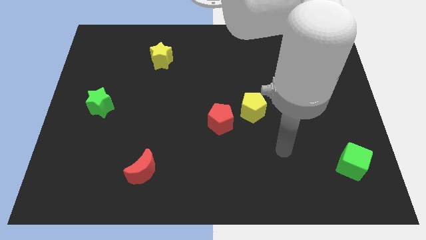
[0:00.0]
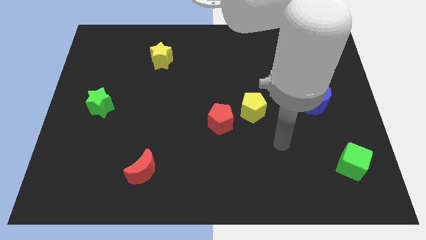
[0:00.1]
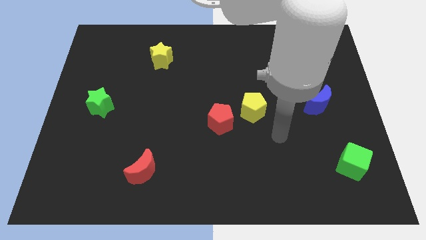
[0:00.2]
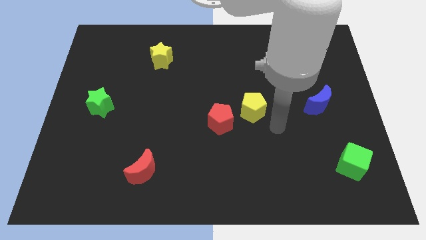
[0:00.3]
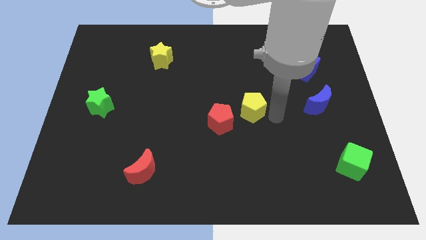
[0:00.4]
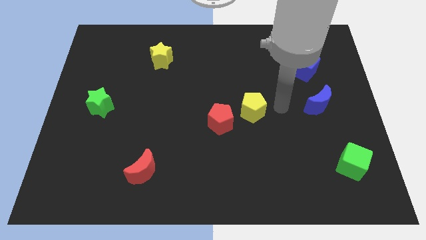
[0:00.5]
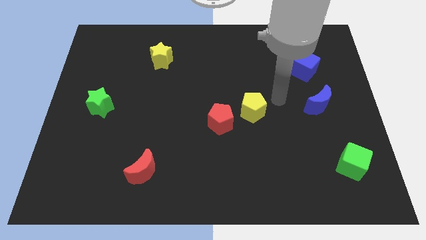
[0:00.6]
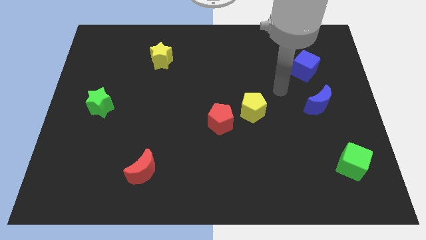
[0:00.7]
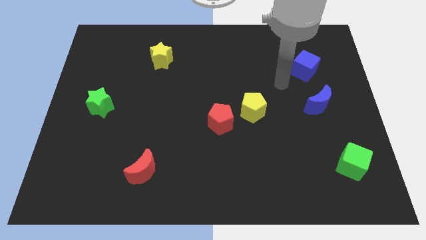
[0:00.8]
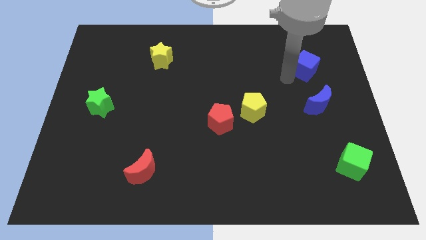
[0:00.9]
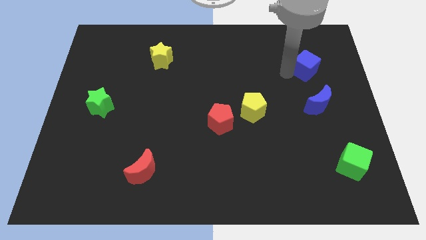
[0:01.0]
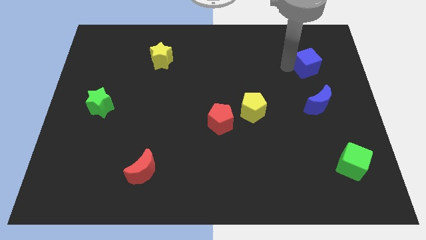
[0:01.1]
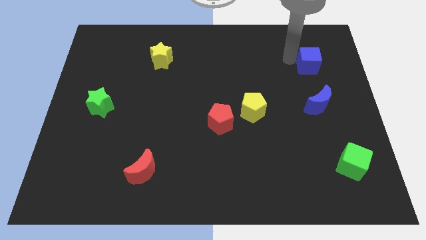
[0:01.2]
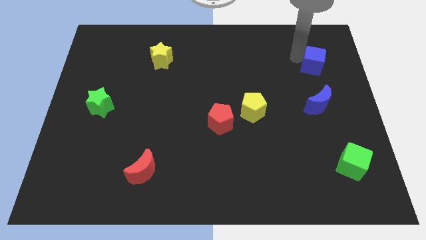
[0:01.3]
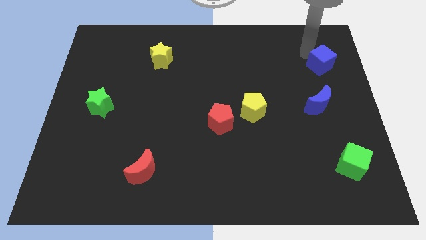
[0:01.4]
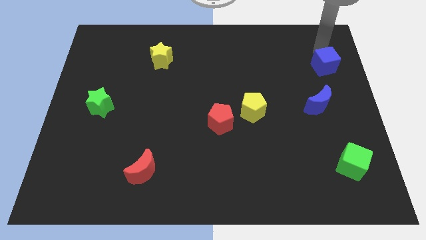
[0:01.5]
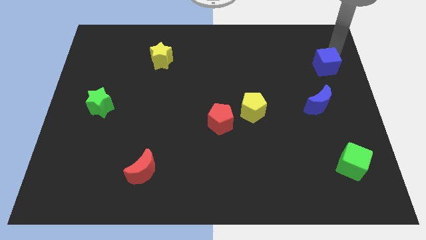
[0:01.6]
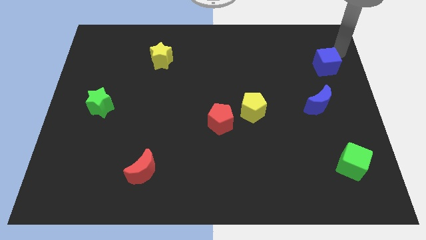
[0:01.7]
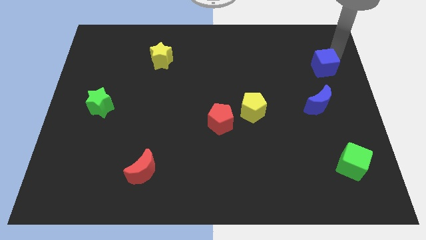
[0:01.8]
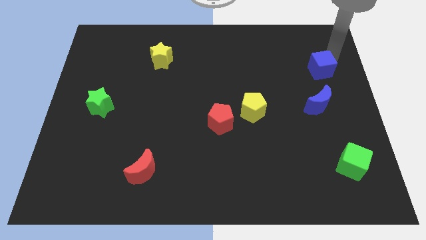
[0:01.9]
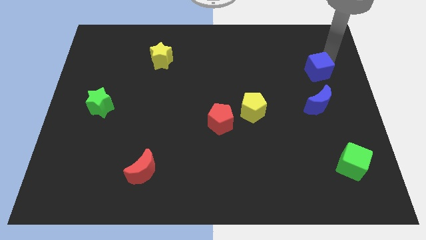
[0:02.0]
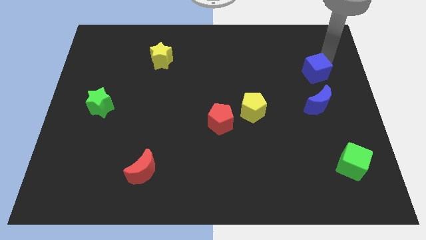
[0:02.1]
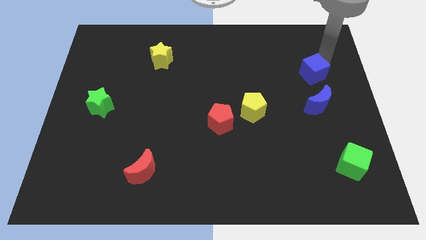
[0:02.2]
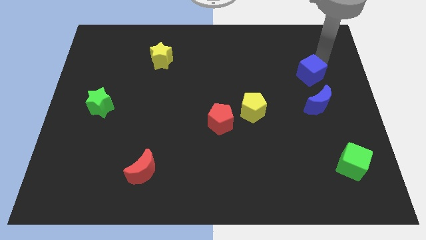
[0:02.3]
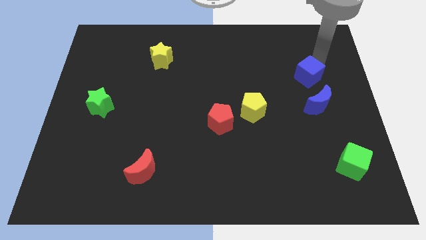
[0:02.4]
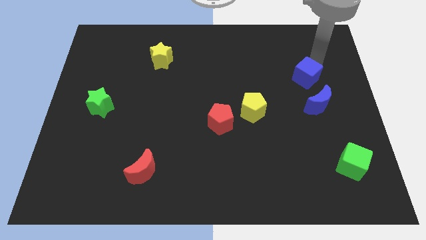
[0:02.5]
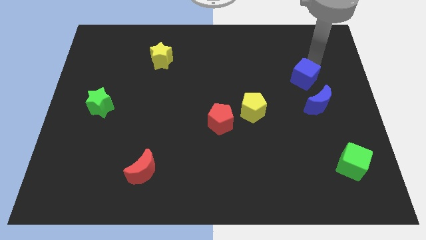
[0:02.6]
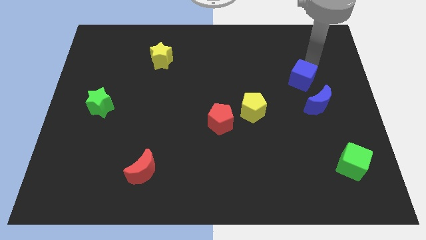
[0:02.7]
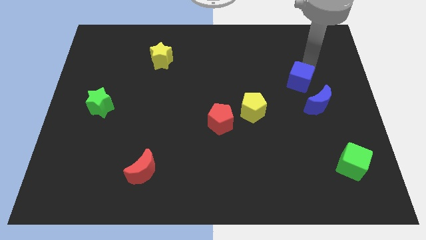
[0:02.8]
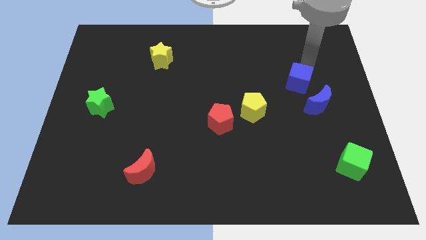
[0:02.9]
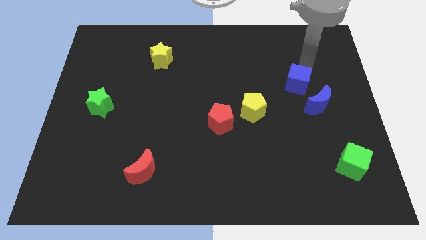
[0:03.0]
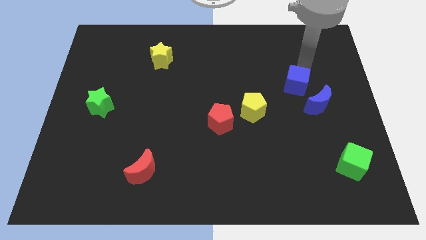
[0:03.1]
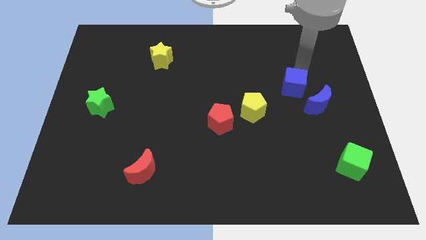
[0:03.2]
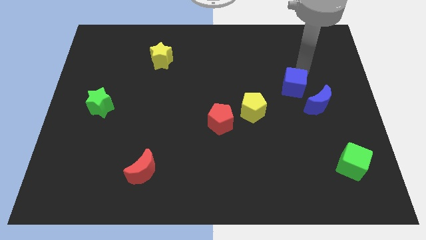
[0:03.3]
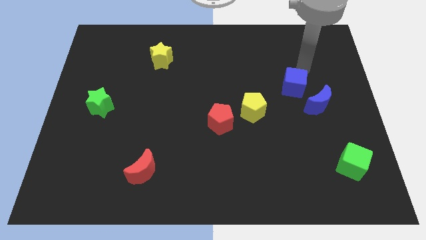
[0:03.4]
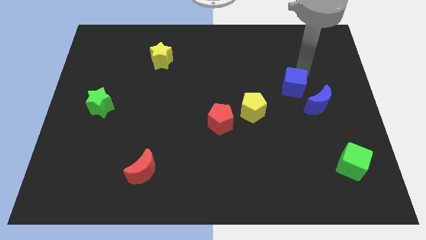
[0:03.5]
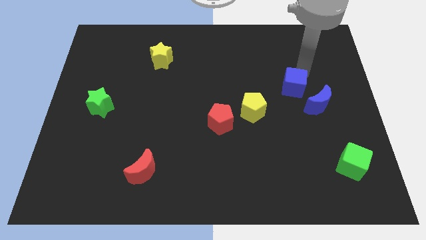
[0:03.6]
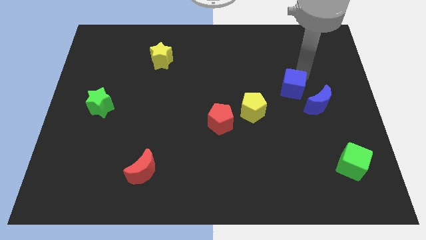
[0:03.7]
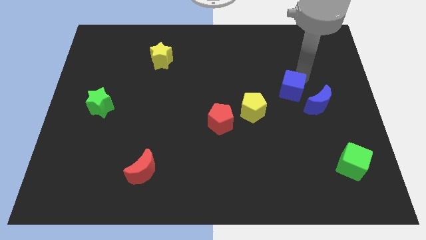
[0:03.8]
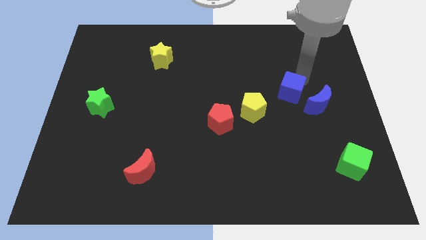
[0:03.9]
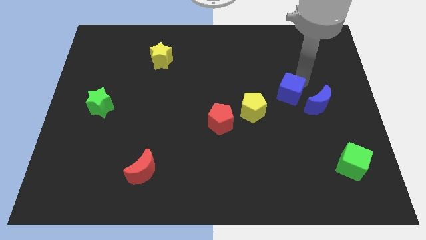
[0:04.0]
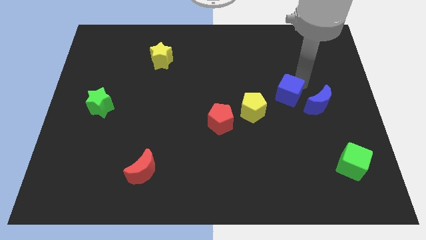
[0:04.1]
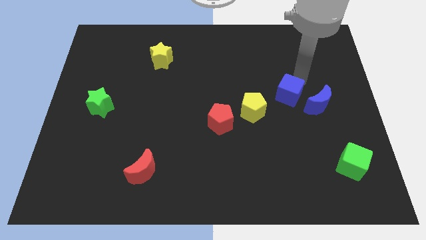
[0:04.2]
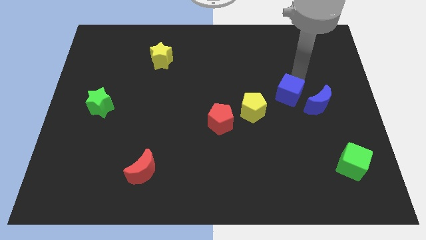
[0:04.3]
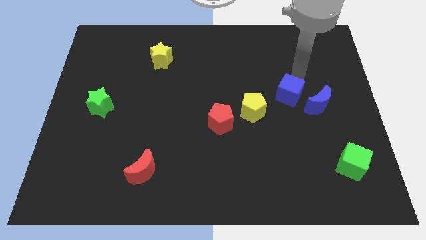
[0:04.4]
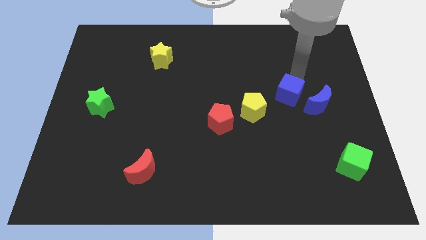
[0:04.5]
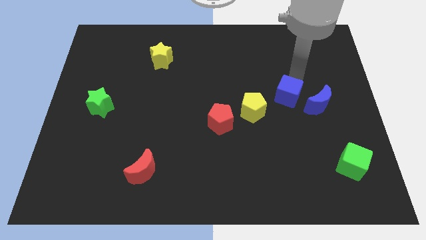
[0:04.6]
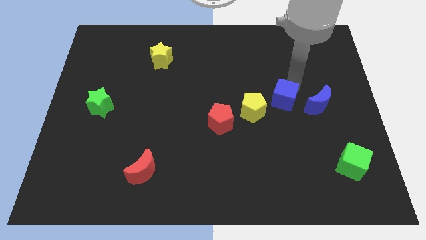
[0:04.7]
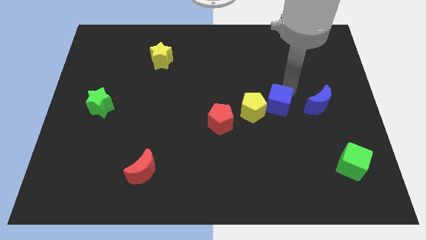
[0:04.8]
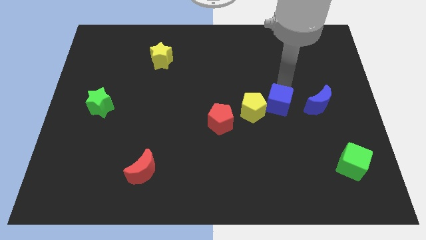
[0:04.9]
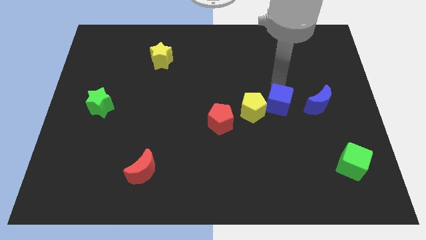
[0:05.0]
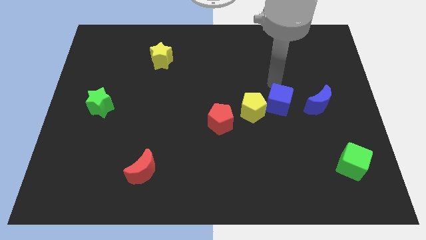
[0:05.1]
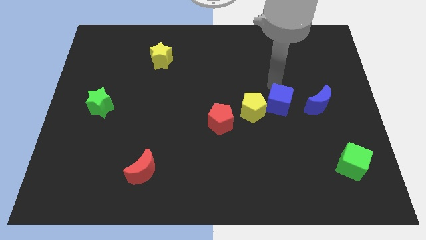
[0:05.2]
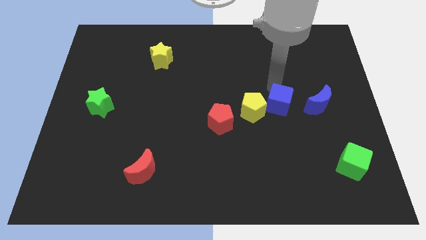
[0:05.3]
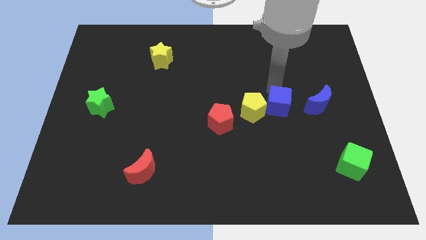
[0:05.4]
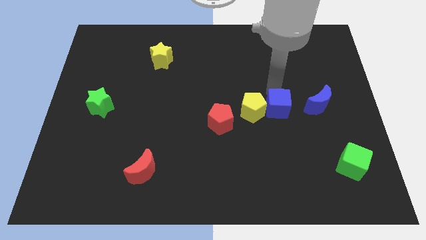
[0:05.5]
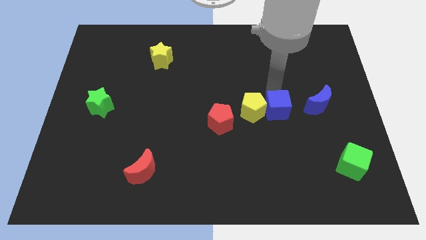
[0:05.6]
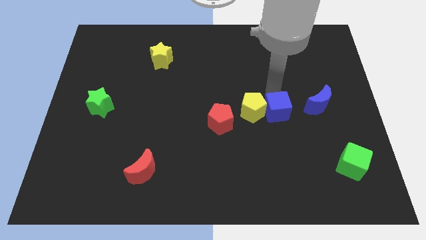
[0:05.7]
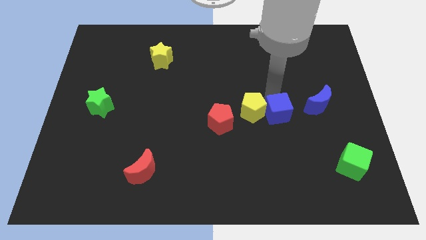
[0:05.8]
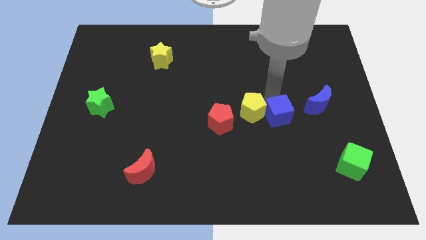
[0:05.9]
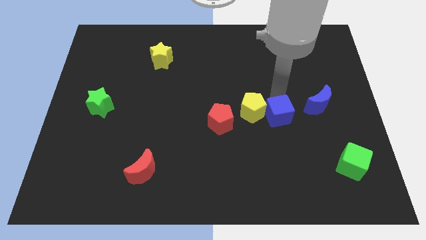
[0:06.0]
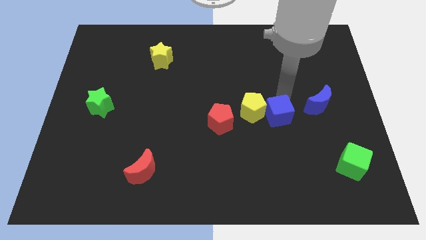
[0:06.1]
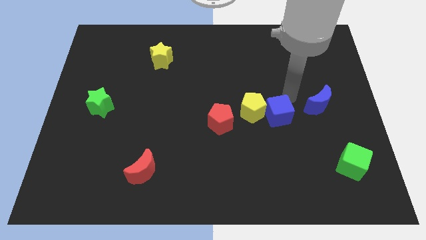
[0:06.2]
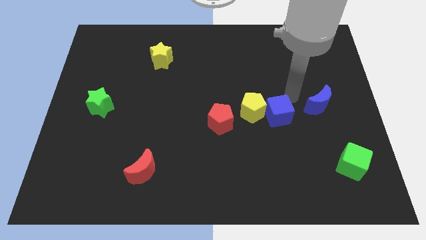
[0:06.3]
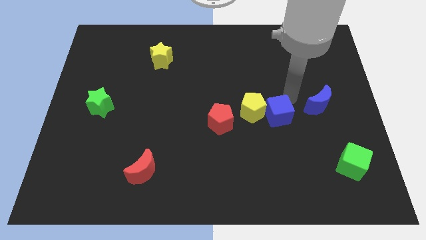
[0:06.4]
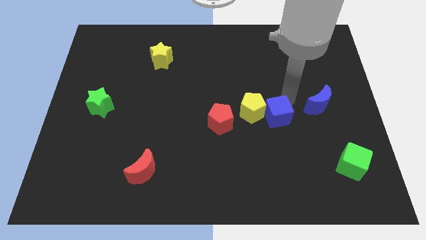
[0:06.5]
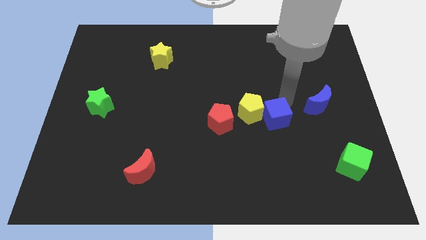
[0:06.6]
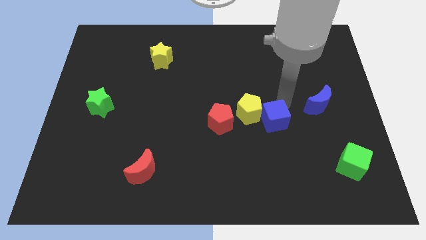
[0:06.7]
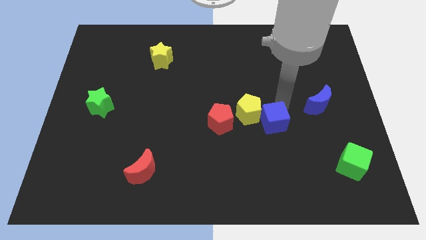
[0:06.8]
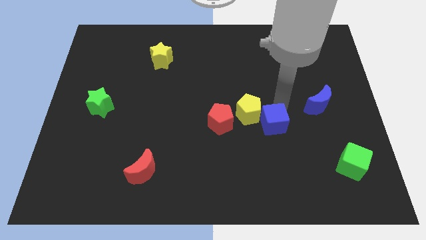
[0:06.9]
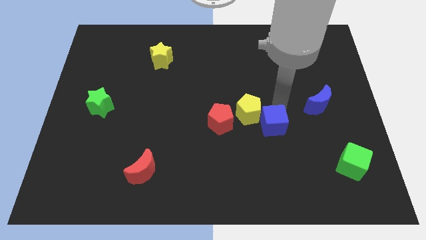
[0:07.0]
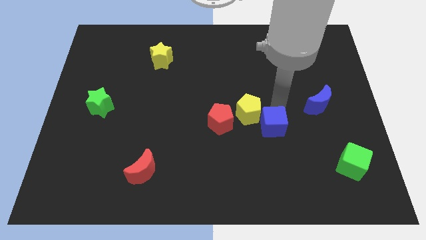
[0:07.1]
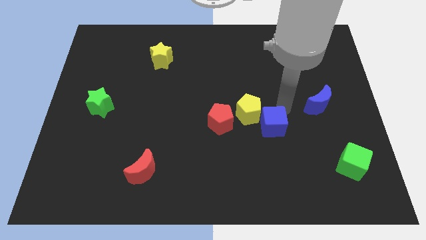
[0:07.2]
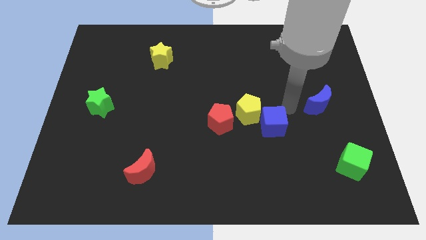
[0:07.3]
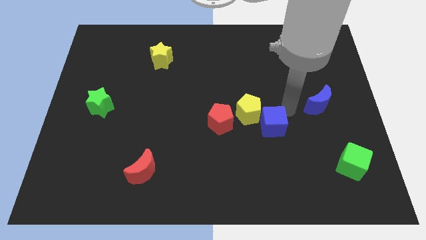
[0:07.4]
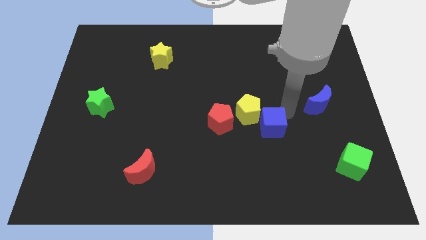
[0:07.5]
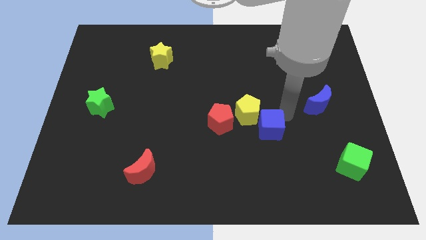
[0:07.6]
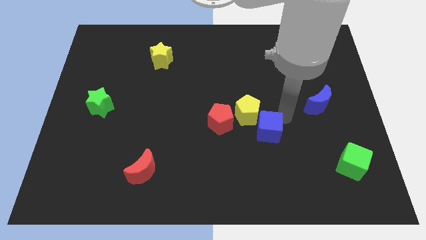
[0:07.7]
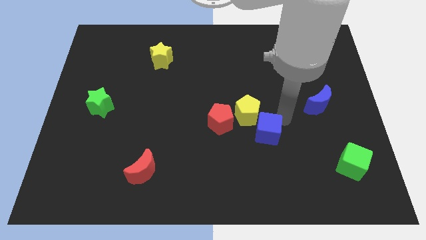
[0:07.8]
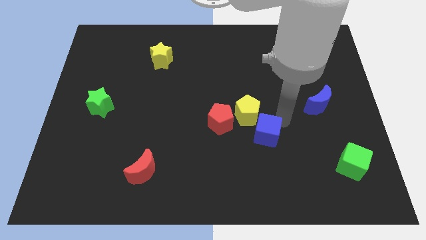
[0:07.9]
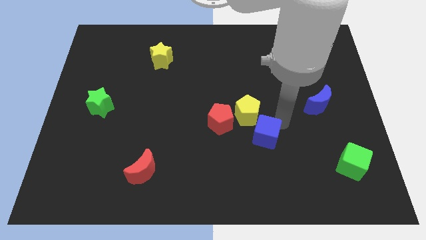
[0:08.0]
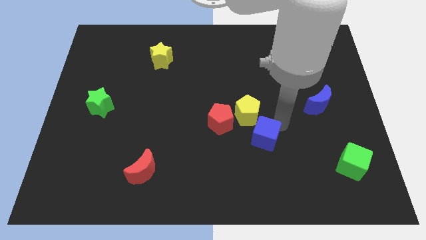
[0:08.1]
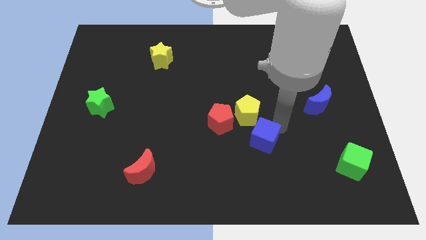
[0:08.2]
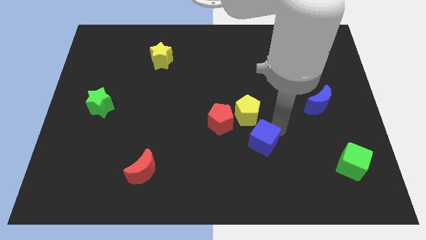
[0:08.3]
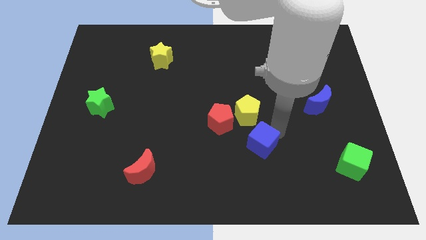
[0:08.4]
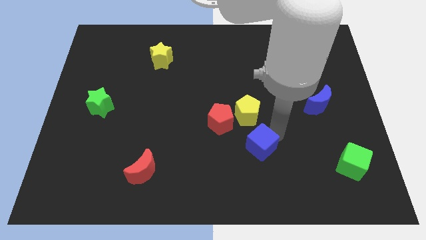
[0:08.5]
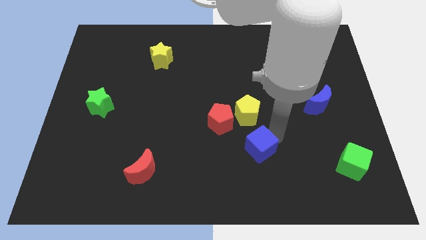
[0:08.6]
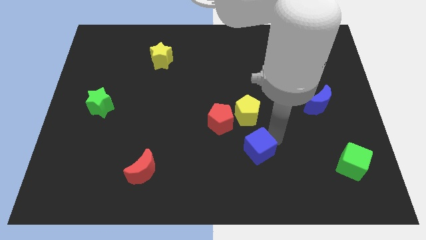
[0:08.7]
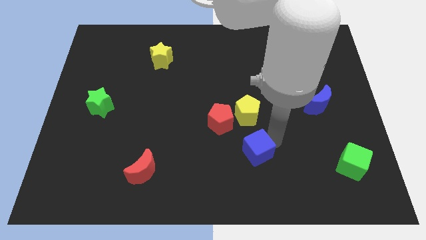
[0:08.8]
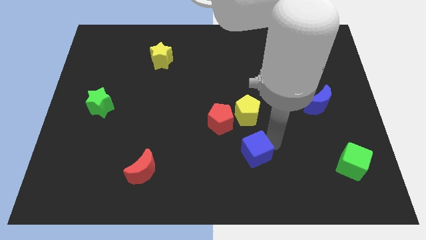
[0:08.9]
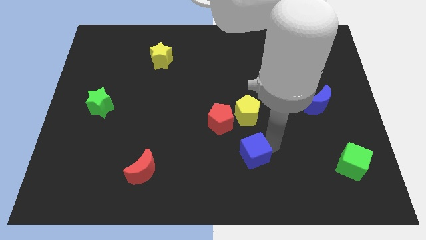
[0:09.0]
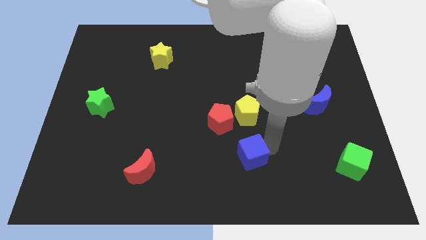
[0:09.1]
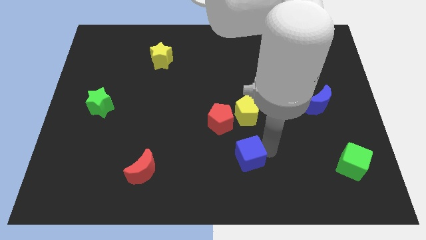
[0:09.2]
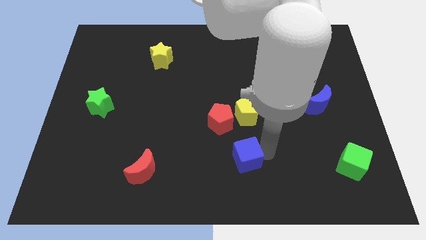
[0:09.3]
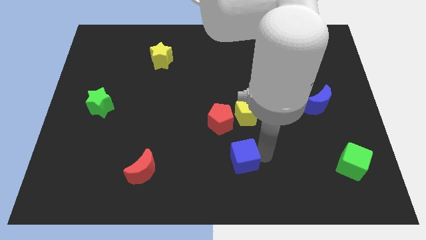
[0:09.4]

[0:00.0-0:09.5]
put the blue cube to the bottom side of the red pentagon
